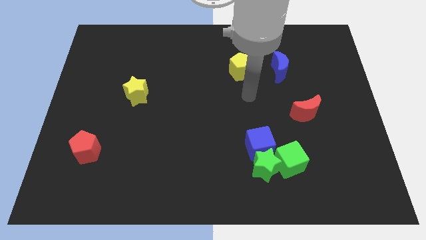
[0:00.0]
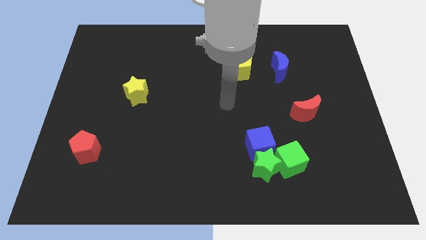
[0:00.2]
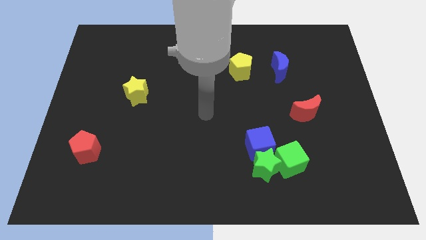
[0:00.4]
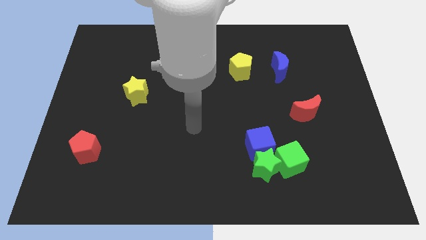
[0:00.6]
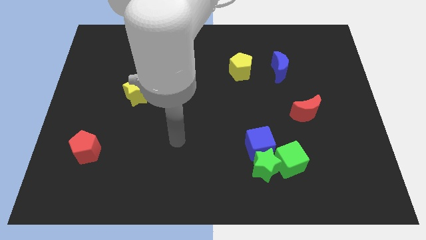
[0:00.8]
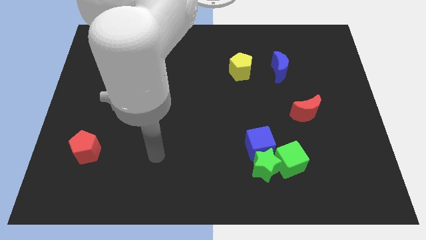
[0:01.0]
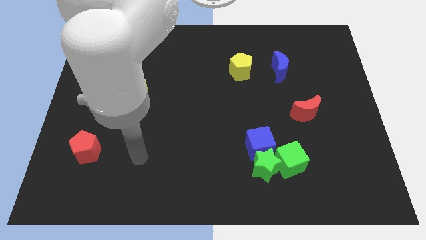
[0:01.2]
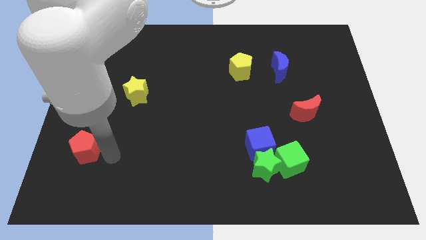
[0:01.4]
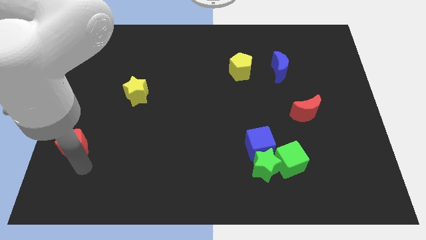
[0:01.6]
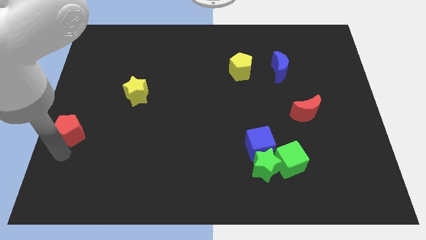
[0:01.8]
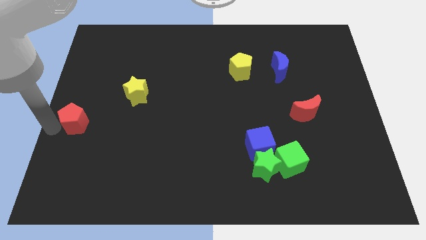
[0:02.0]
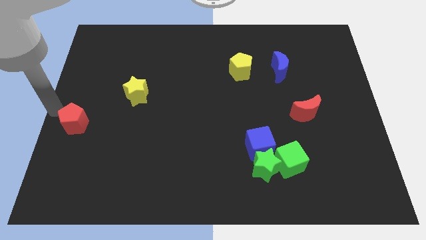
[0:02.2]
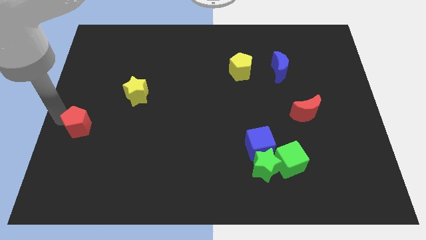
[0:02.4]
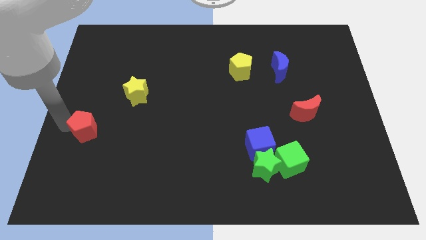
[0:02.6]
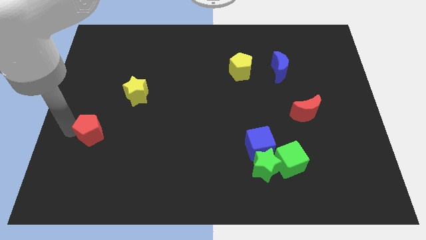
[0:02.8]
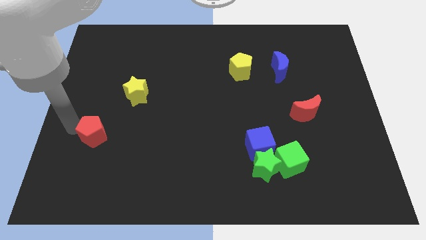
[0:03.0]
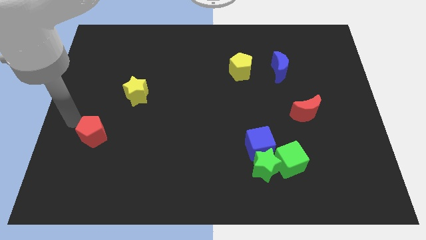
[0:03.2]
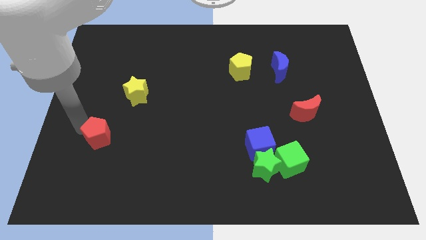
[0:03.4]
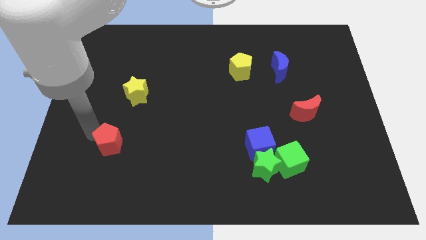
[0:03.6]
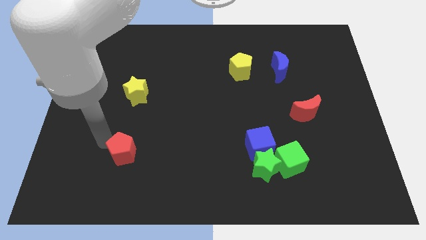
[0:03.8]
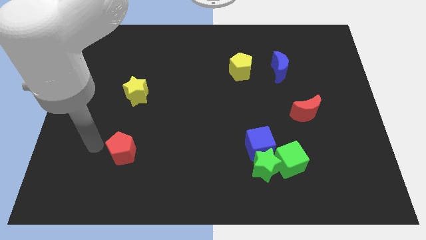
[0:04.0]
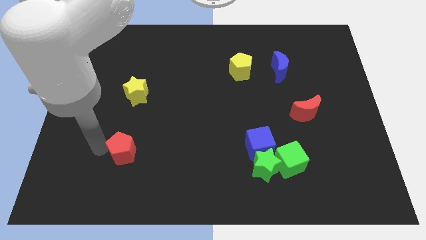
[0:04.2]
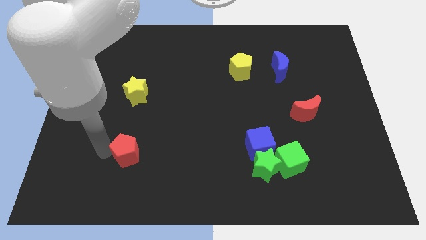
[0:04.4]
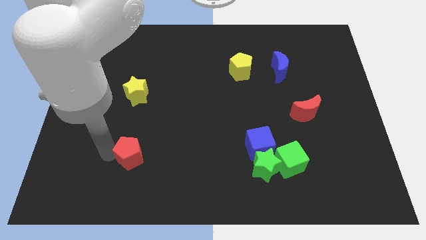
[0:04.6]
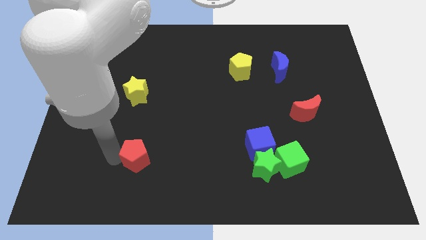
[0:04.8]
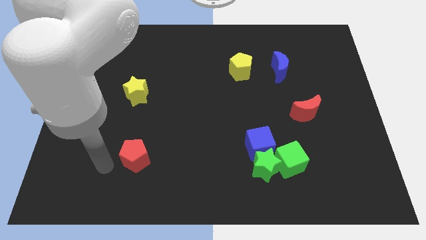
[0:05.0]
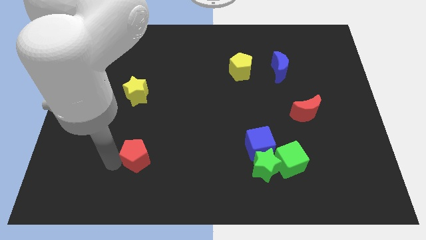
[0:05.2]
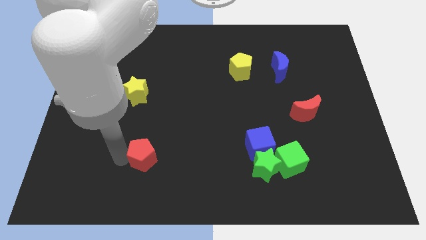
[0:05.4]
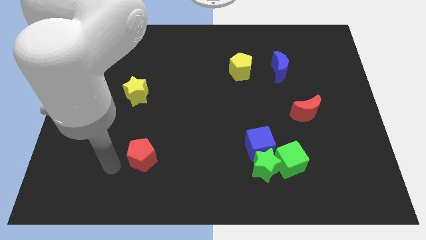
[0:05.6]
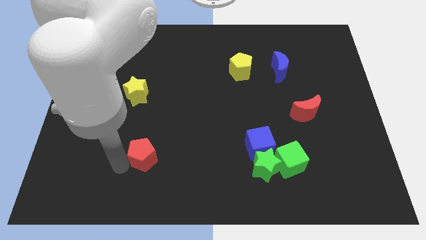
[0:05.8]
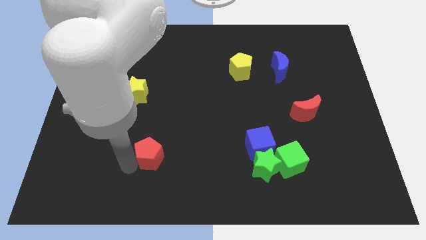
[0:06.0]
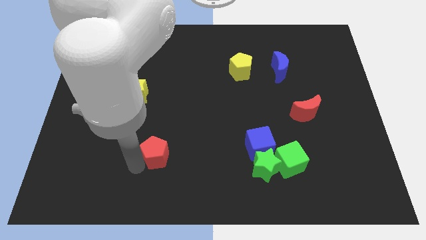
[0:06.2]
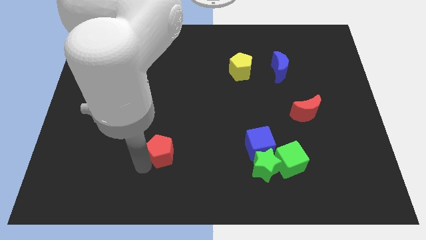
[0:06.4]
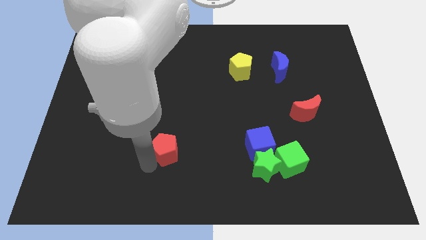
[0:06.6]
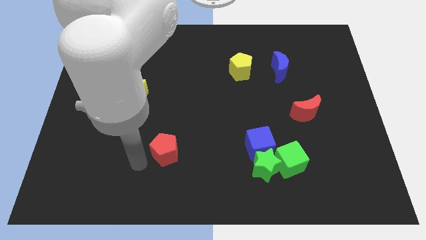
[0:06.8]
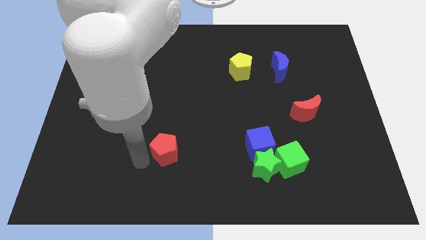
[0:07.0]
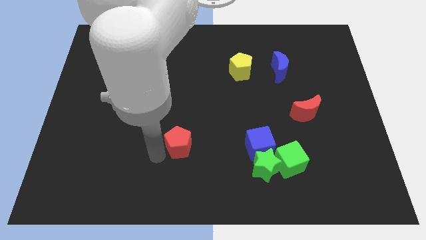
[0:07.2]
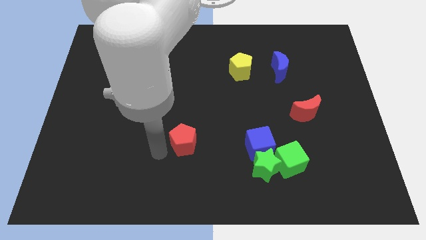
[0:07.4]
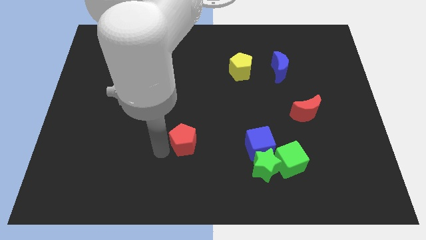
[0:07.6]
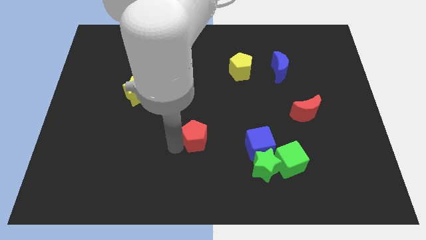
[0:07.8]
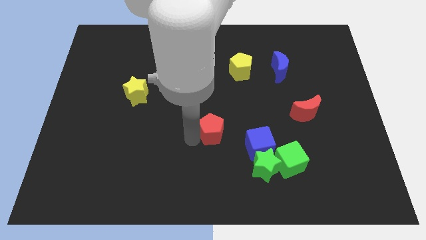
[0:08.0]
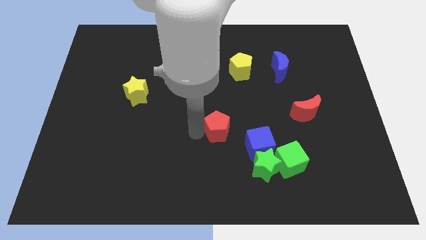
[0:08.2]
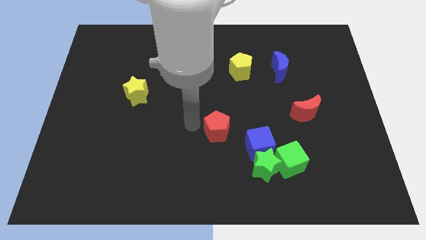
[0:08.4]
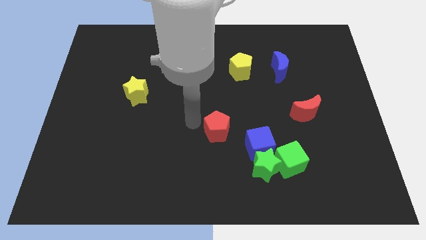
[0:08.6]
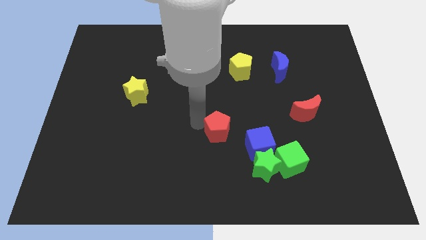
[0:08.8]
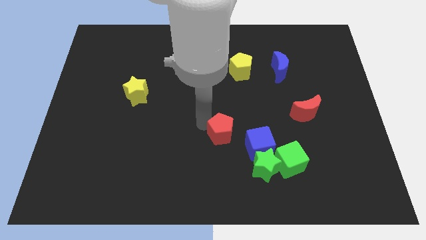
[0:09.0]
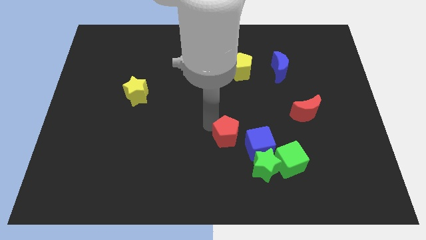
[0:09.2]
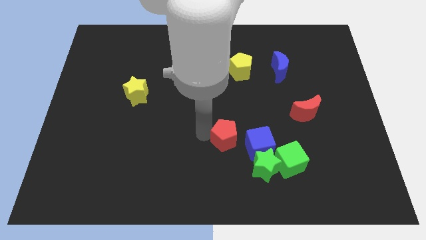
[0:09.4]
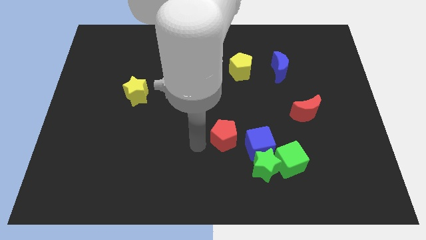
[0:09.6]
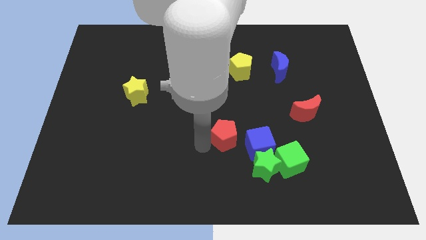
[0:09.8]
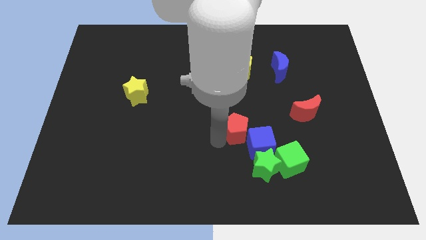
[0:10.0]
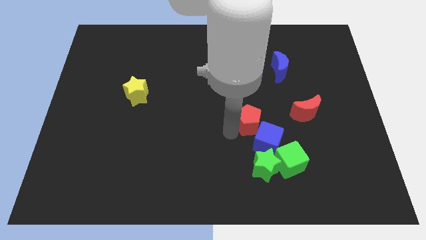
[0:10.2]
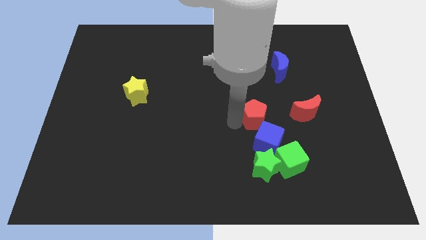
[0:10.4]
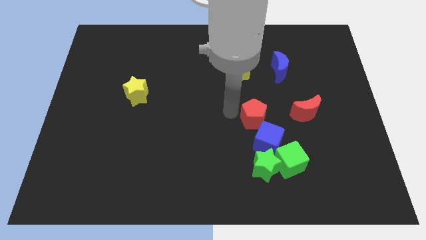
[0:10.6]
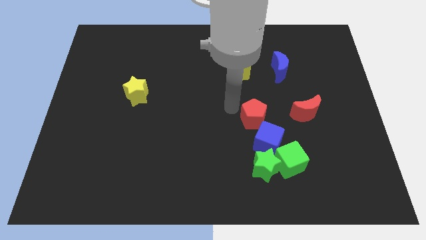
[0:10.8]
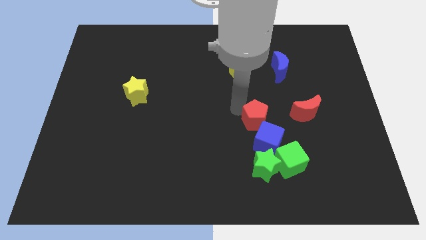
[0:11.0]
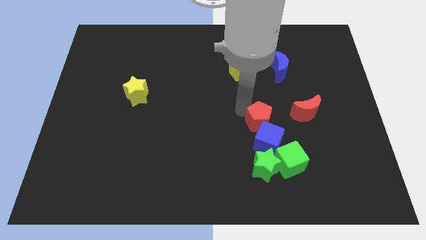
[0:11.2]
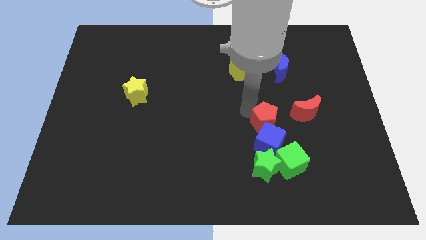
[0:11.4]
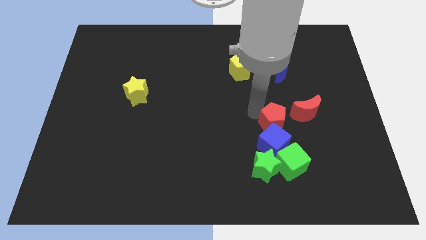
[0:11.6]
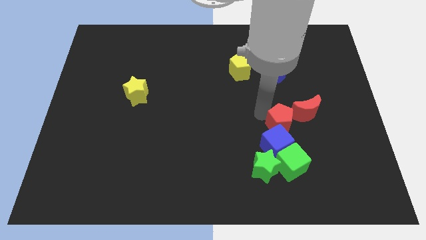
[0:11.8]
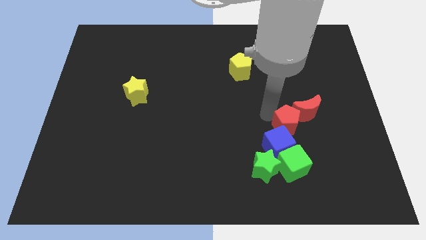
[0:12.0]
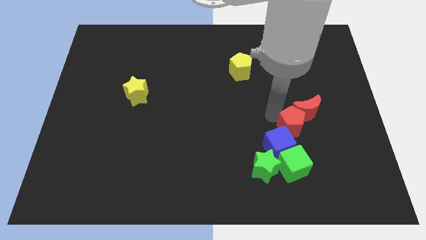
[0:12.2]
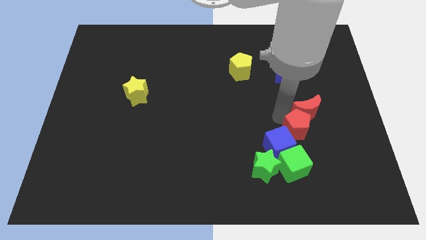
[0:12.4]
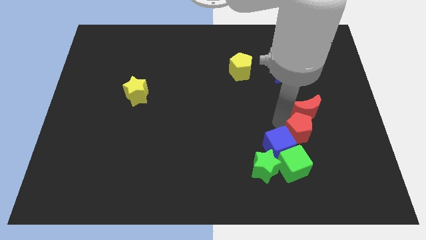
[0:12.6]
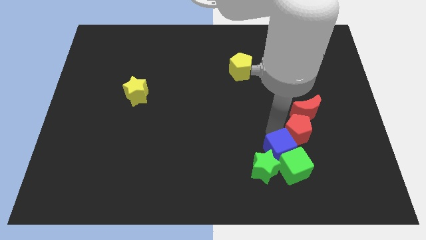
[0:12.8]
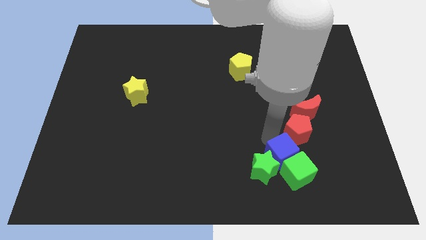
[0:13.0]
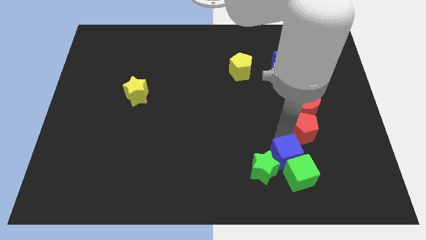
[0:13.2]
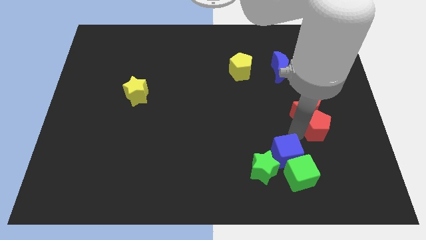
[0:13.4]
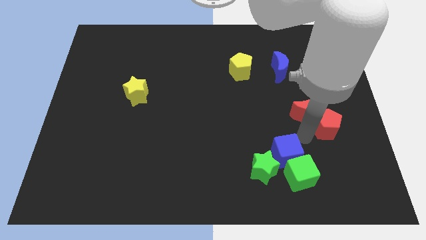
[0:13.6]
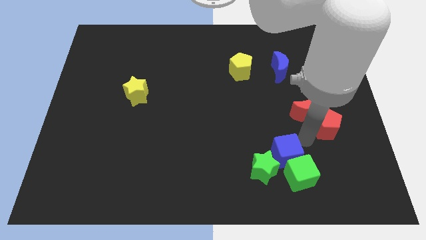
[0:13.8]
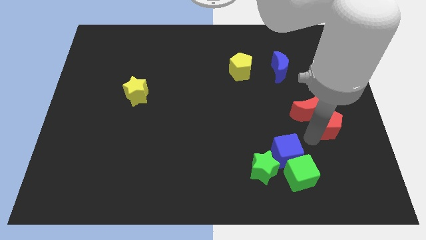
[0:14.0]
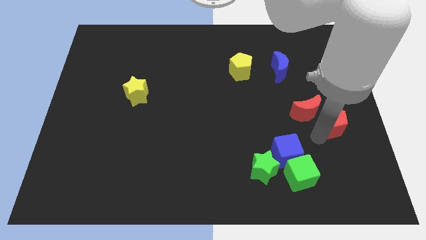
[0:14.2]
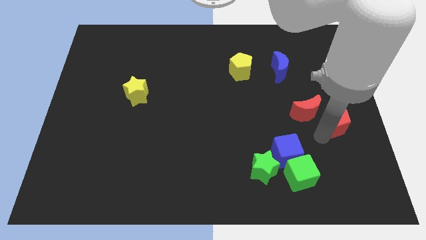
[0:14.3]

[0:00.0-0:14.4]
put the red pentagon to the right side of the board
